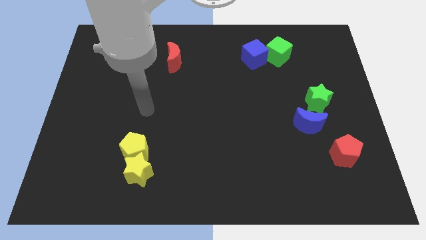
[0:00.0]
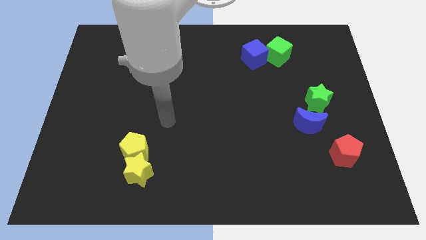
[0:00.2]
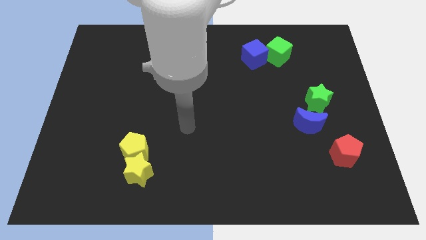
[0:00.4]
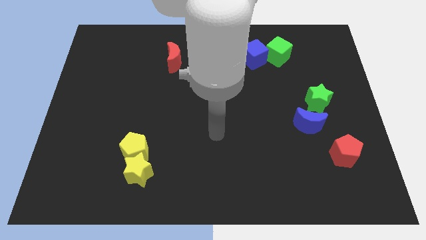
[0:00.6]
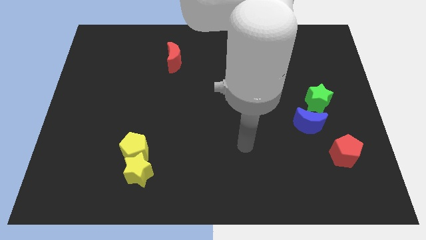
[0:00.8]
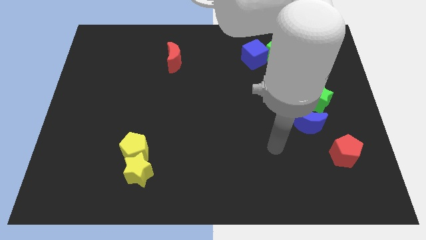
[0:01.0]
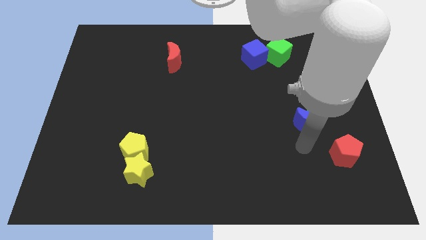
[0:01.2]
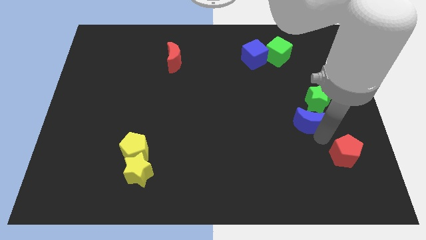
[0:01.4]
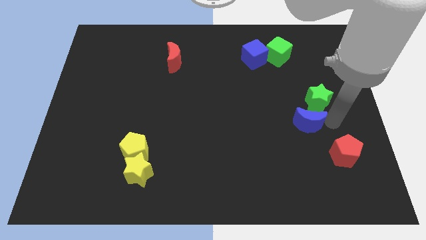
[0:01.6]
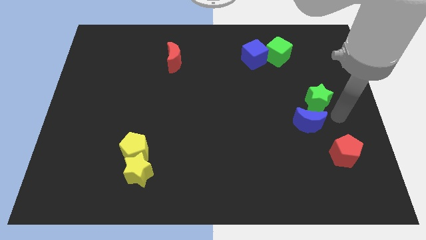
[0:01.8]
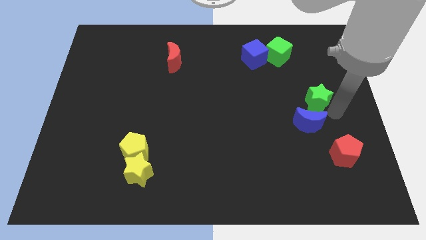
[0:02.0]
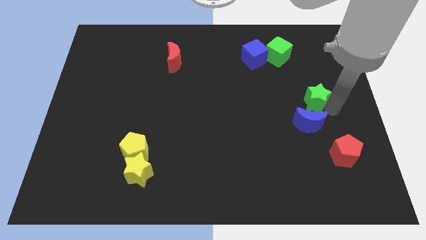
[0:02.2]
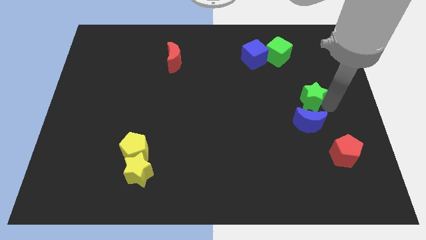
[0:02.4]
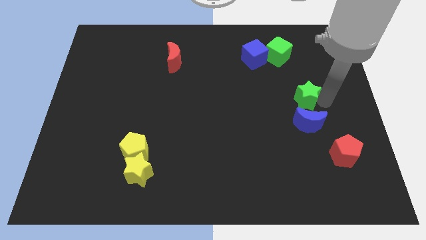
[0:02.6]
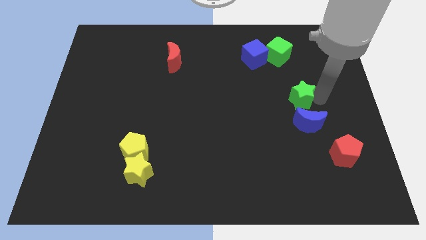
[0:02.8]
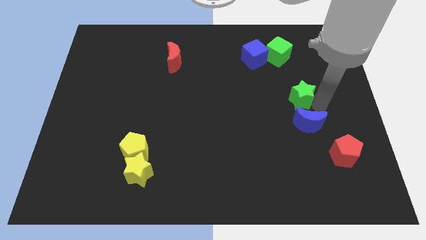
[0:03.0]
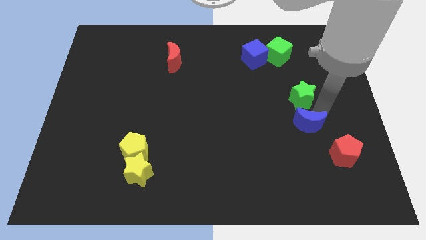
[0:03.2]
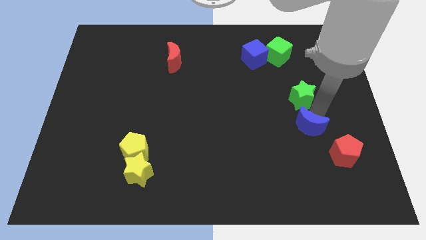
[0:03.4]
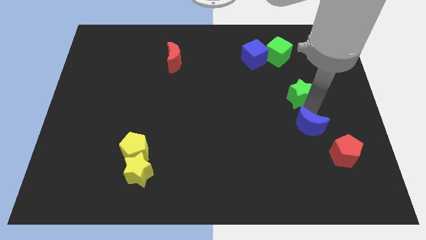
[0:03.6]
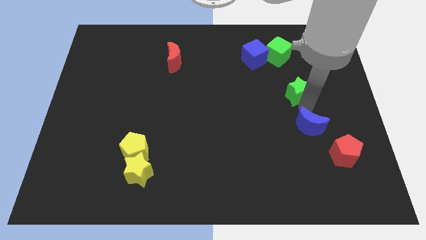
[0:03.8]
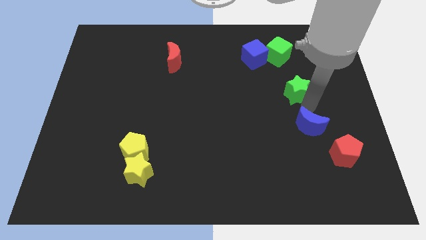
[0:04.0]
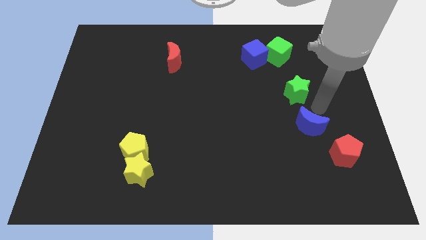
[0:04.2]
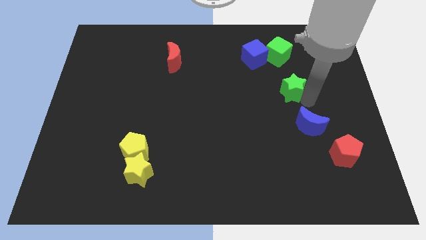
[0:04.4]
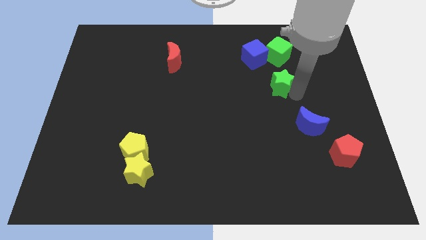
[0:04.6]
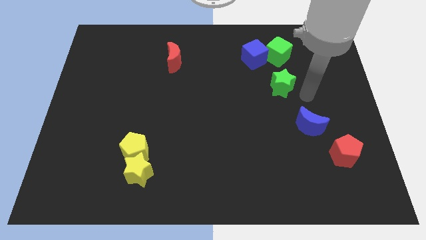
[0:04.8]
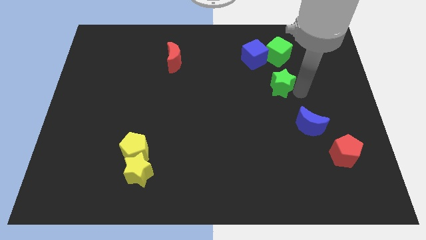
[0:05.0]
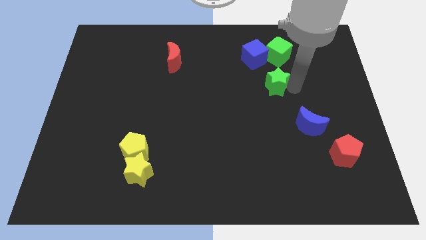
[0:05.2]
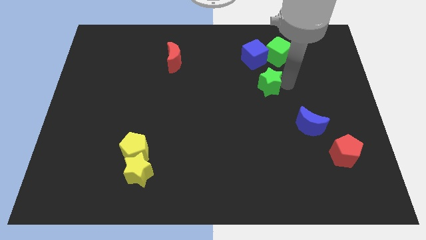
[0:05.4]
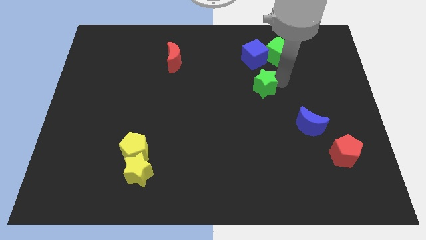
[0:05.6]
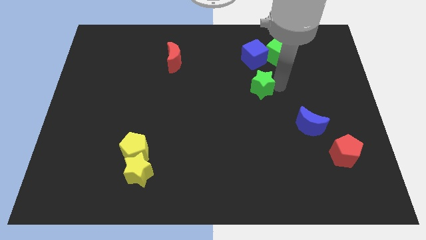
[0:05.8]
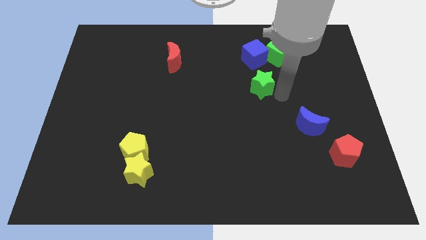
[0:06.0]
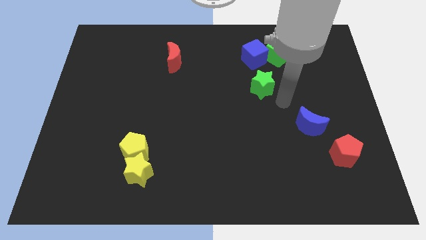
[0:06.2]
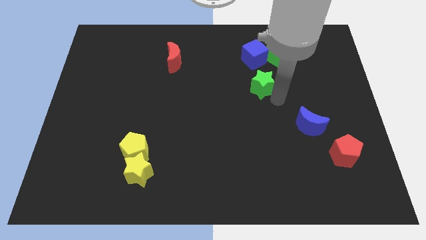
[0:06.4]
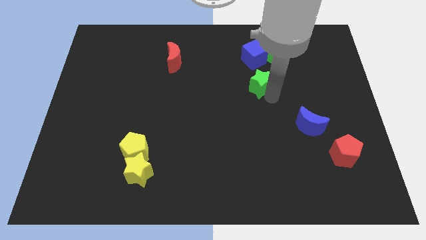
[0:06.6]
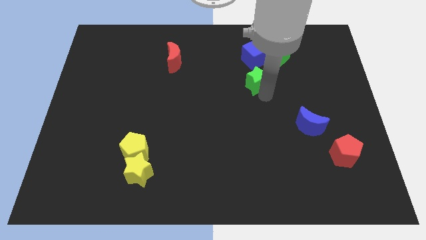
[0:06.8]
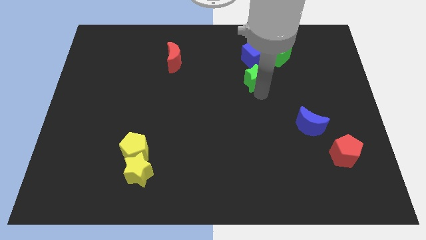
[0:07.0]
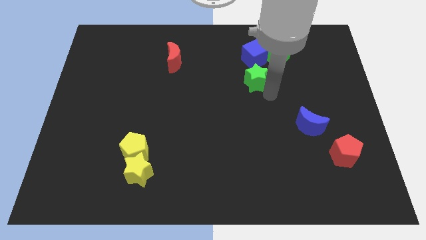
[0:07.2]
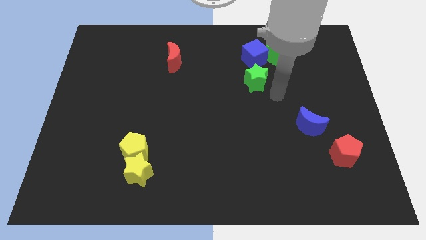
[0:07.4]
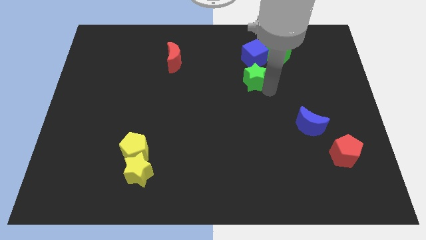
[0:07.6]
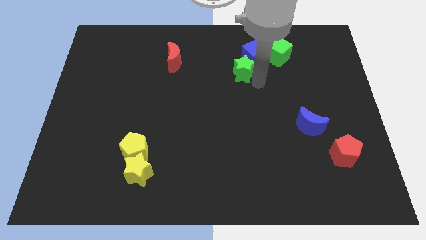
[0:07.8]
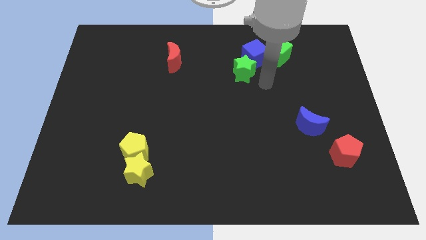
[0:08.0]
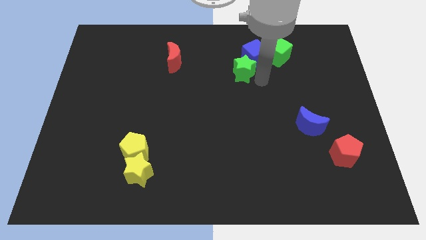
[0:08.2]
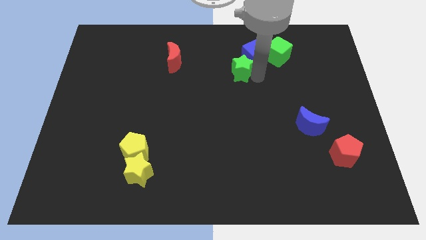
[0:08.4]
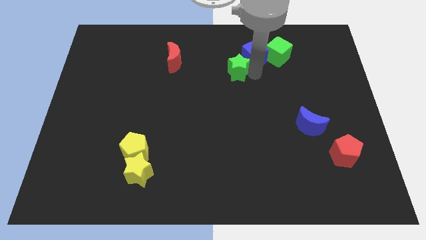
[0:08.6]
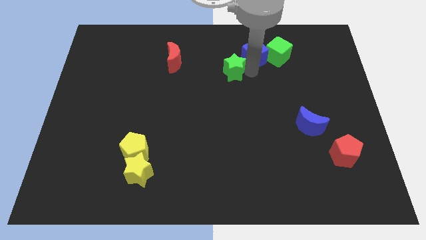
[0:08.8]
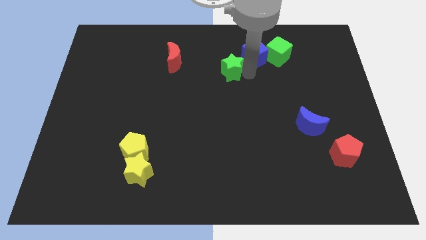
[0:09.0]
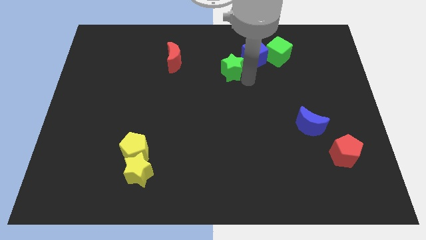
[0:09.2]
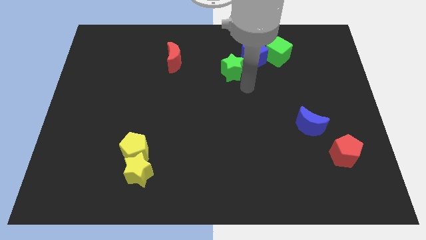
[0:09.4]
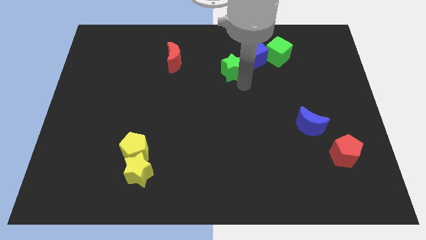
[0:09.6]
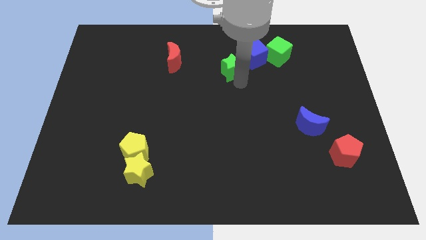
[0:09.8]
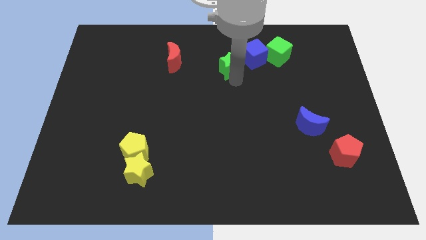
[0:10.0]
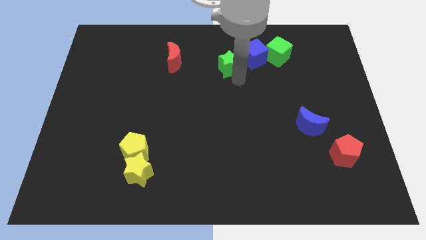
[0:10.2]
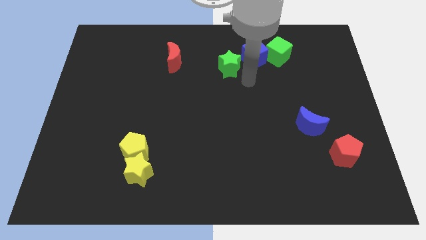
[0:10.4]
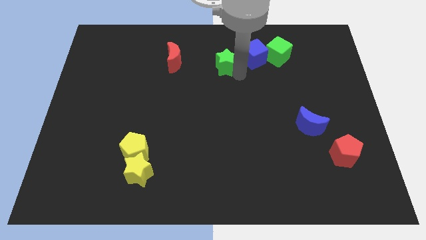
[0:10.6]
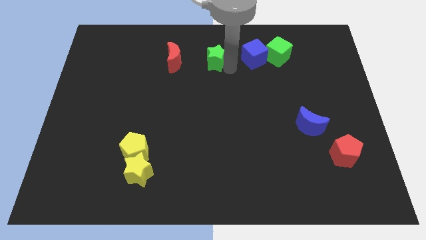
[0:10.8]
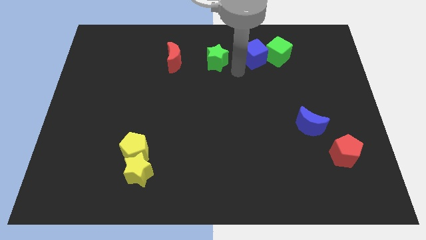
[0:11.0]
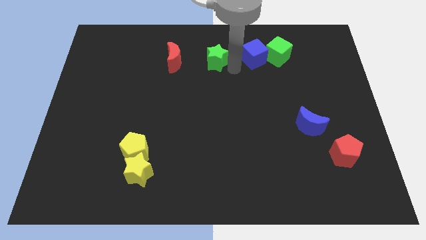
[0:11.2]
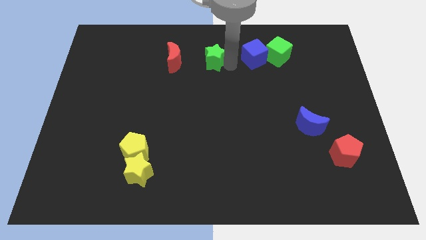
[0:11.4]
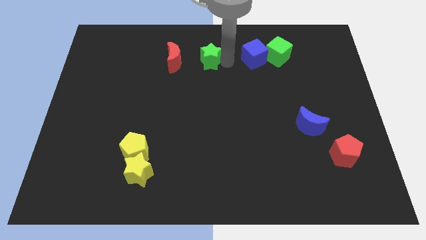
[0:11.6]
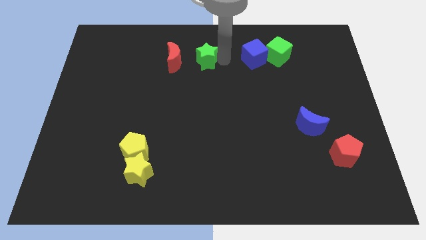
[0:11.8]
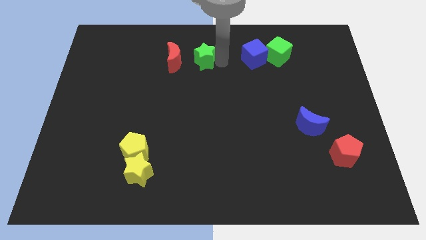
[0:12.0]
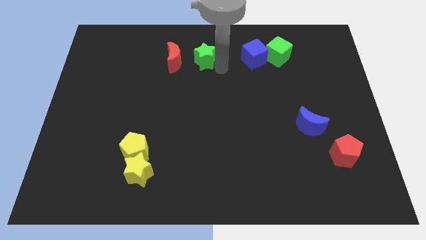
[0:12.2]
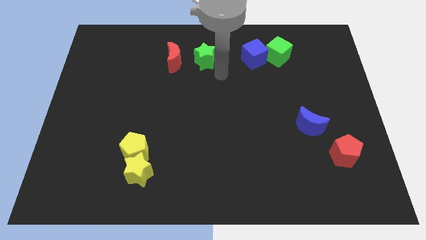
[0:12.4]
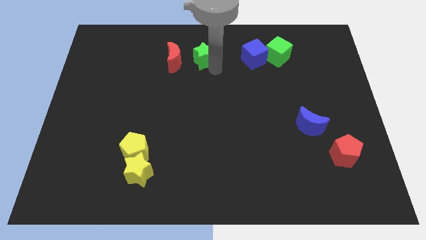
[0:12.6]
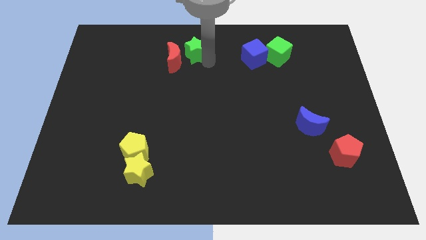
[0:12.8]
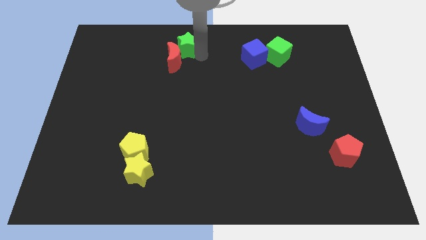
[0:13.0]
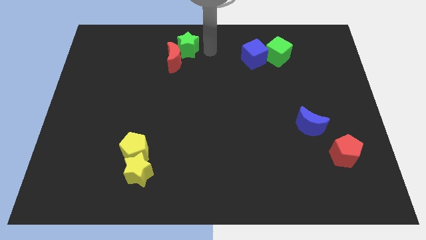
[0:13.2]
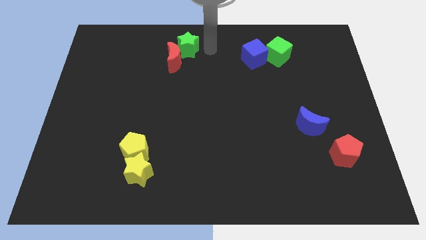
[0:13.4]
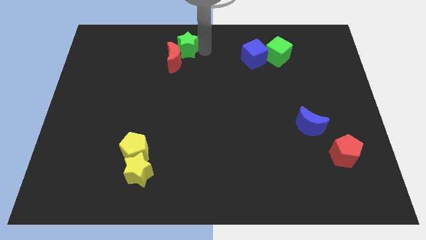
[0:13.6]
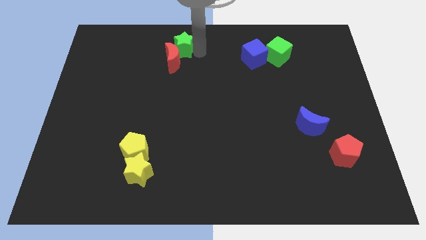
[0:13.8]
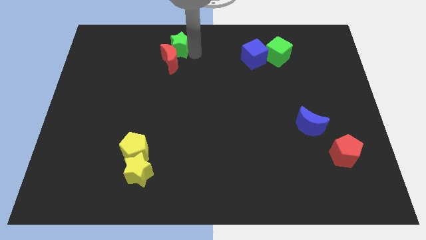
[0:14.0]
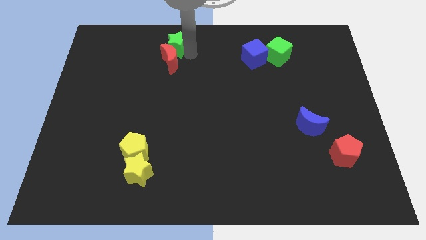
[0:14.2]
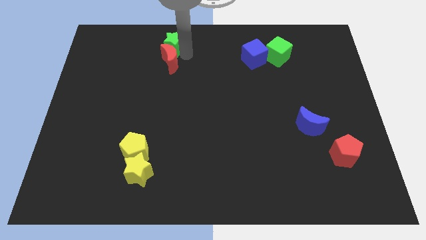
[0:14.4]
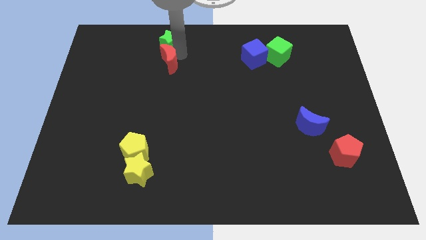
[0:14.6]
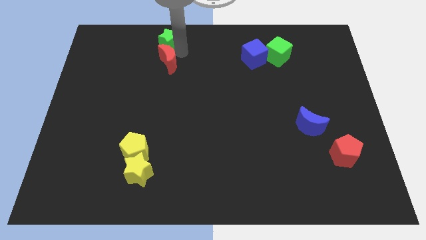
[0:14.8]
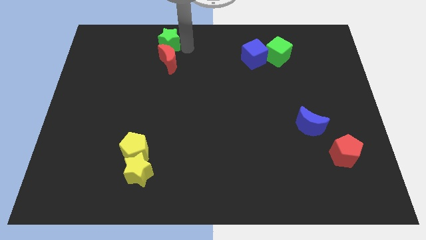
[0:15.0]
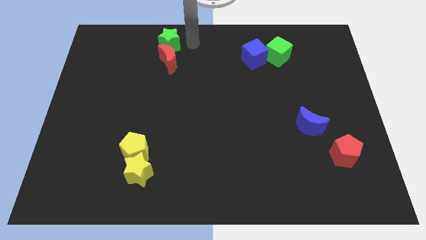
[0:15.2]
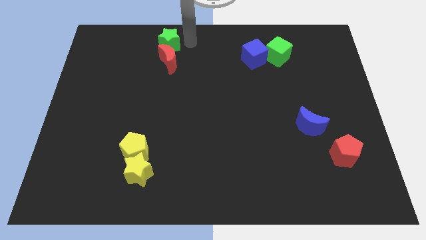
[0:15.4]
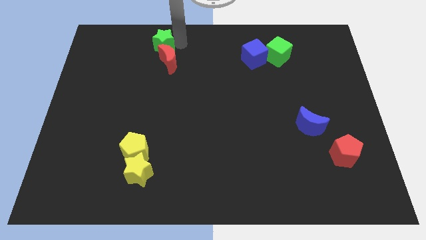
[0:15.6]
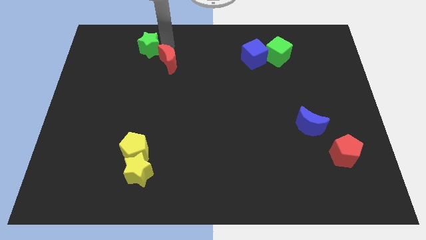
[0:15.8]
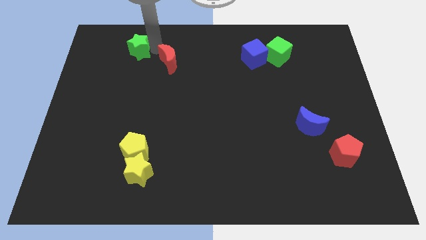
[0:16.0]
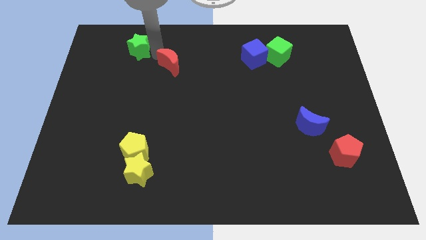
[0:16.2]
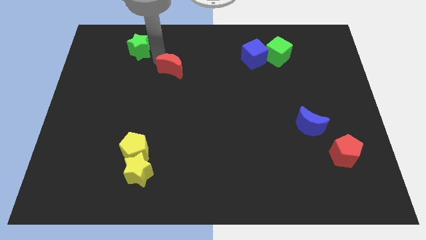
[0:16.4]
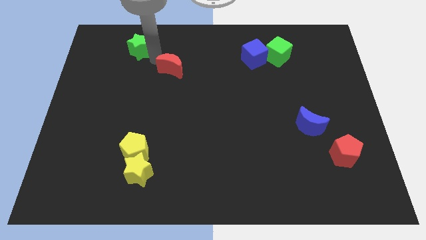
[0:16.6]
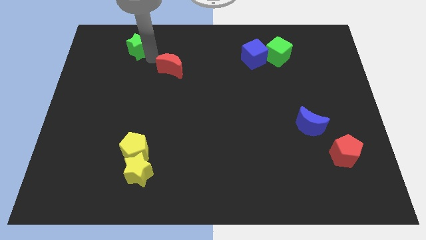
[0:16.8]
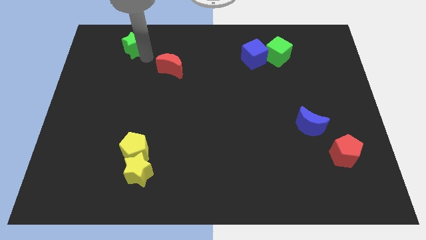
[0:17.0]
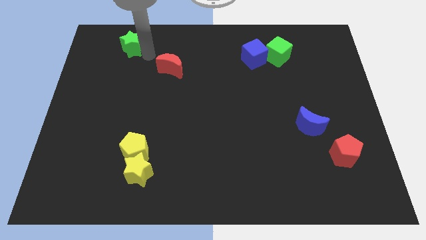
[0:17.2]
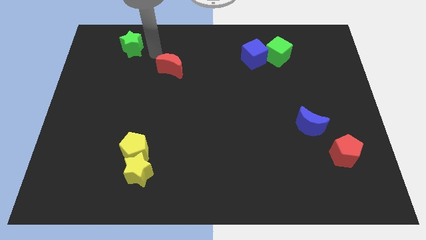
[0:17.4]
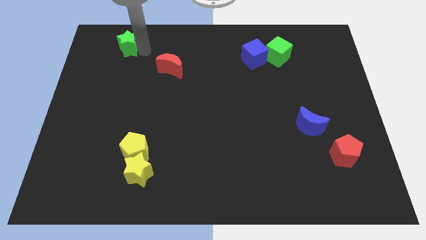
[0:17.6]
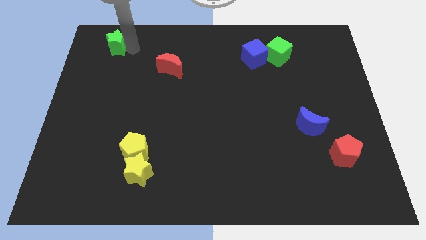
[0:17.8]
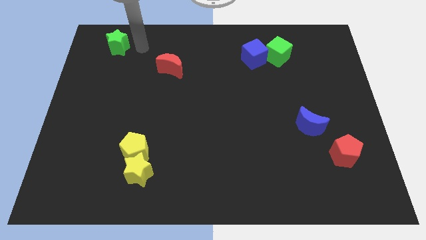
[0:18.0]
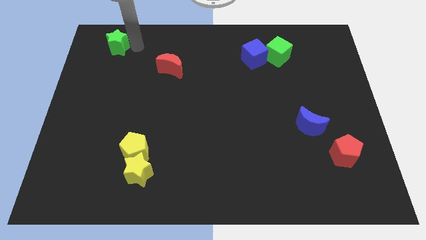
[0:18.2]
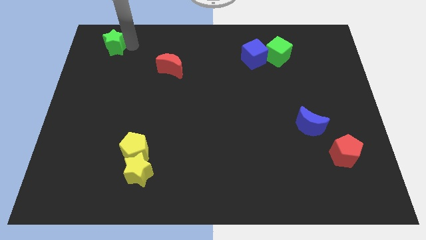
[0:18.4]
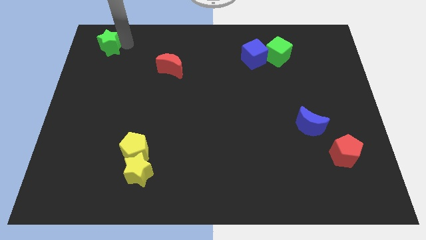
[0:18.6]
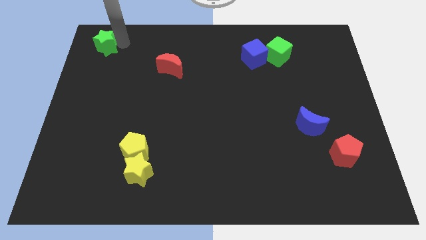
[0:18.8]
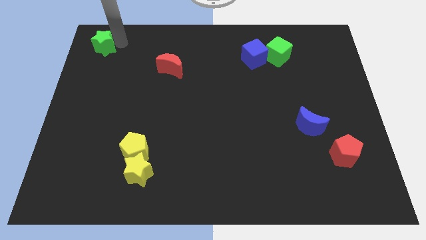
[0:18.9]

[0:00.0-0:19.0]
move the green star to the top left of the board
